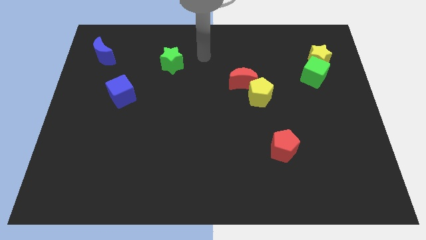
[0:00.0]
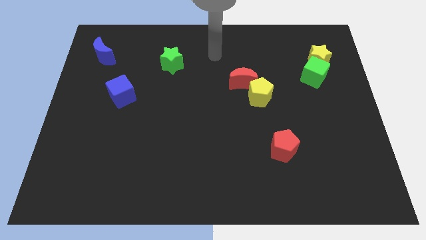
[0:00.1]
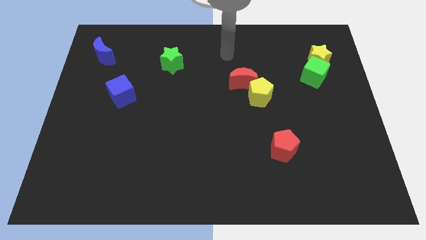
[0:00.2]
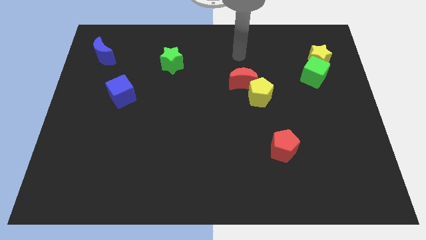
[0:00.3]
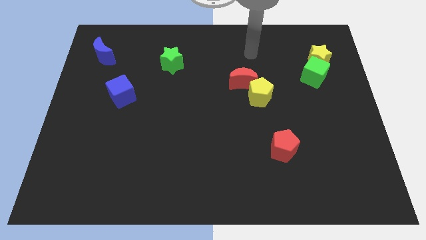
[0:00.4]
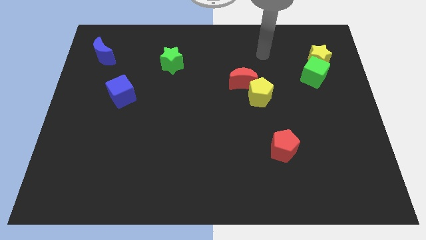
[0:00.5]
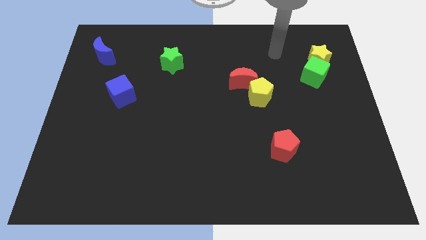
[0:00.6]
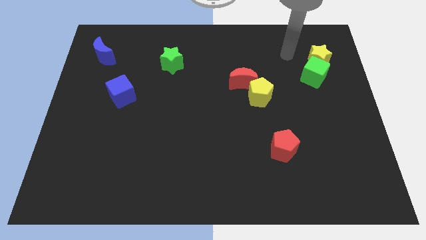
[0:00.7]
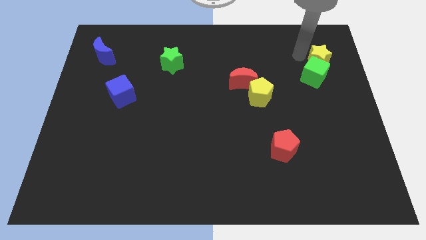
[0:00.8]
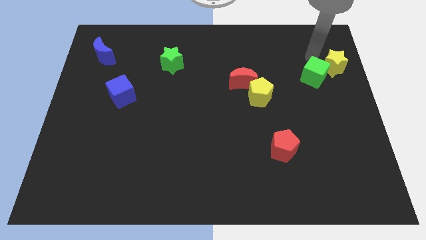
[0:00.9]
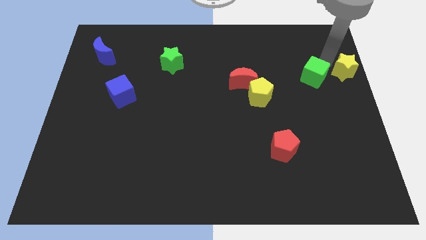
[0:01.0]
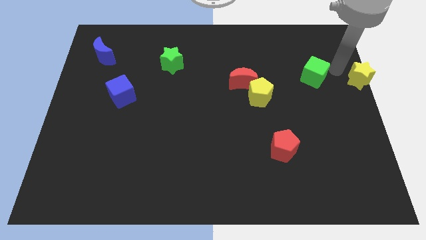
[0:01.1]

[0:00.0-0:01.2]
separate the green cube from the yellow star

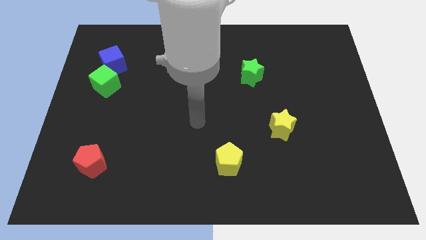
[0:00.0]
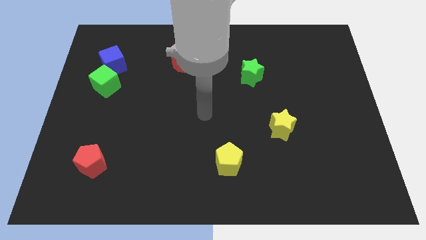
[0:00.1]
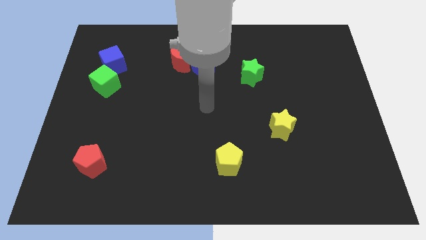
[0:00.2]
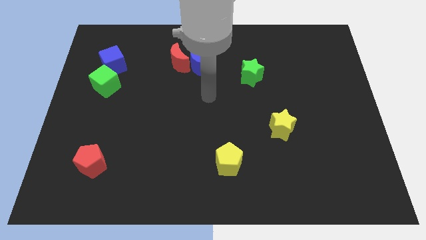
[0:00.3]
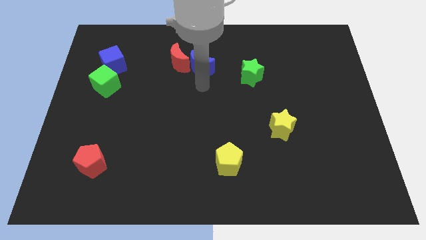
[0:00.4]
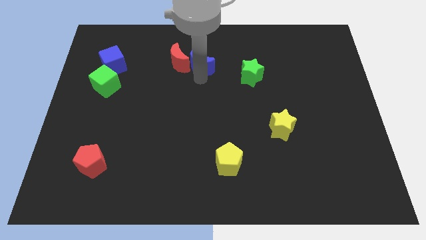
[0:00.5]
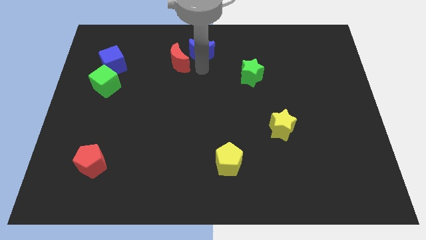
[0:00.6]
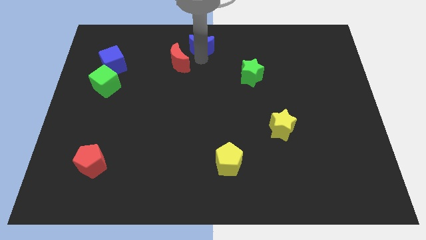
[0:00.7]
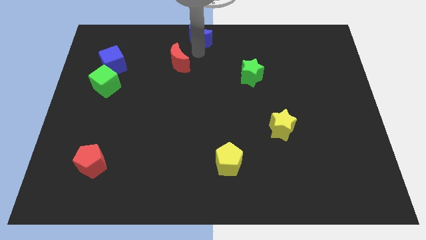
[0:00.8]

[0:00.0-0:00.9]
separate the red moon from the blue moon

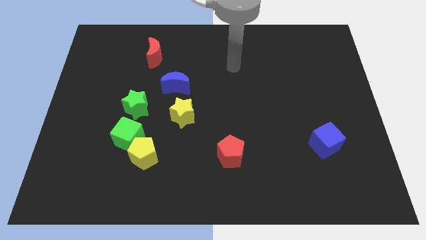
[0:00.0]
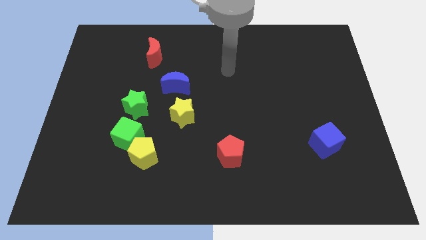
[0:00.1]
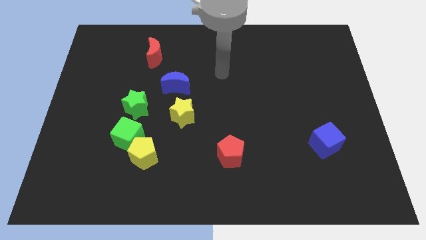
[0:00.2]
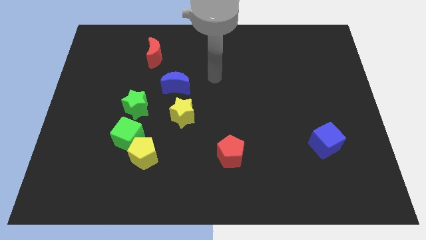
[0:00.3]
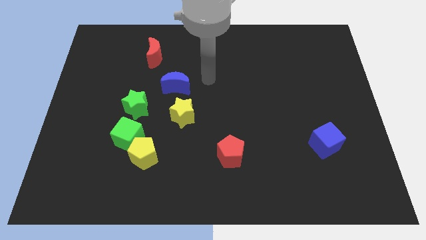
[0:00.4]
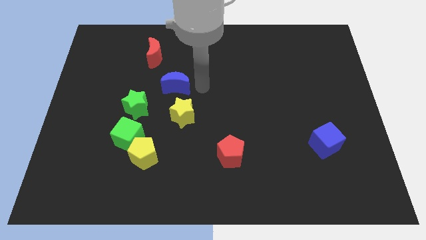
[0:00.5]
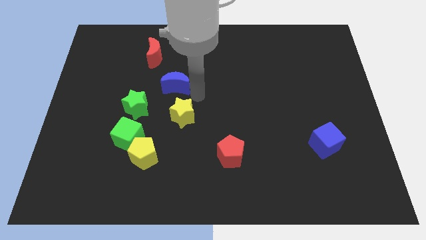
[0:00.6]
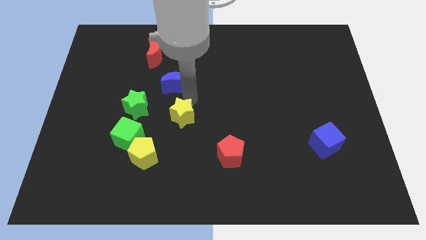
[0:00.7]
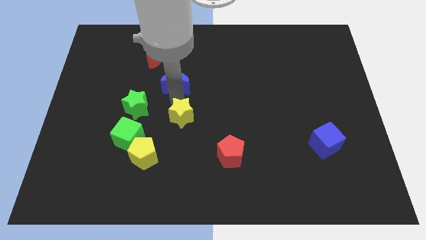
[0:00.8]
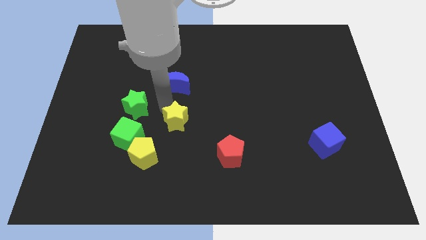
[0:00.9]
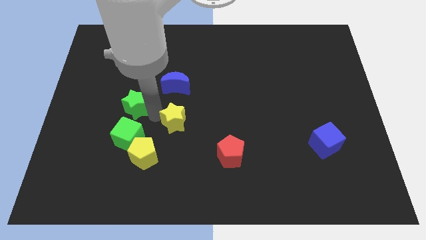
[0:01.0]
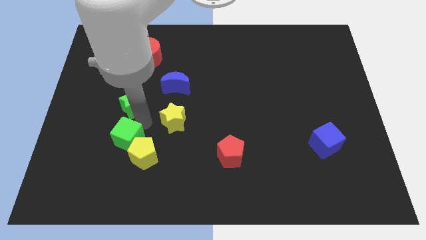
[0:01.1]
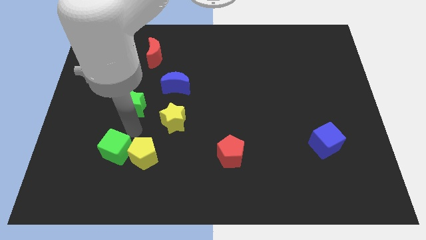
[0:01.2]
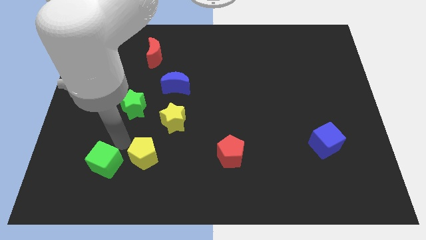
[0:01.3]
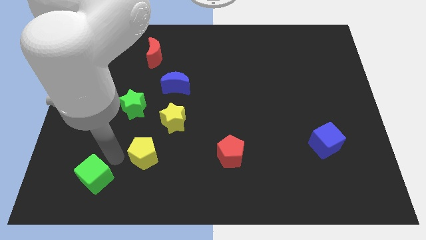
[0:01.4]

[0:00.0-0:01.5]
separate the yellow pentagon from the green cube

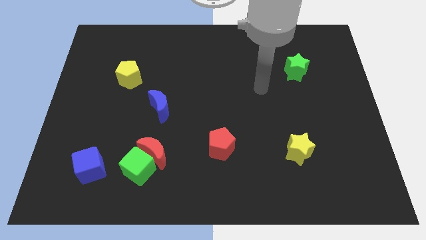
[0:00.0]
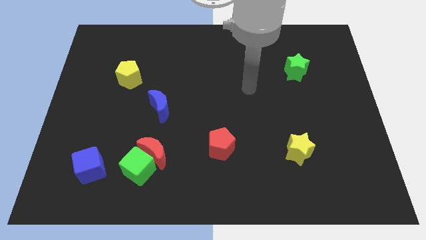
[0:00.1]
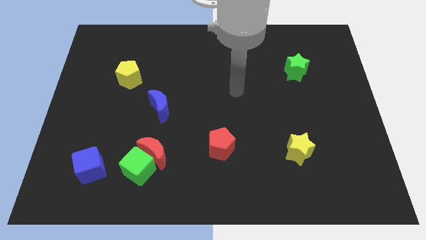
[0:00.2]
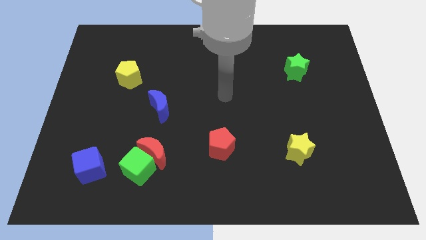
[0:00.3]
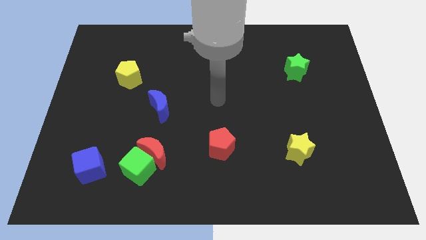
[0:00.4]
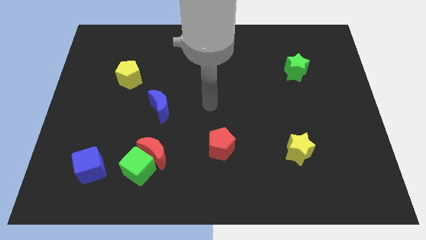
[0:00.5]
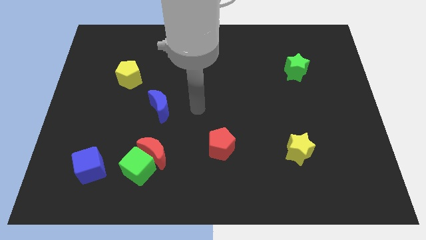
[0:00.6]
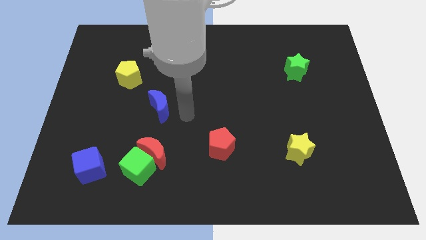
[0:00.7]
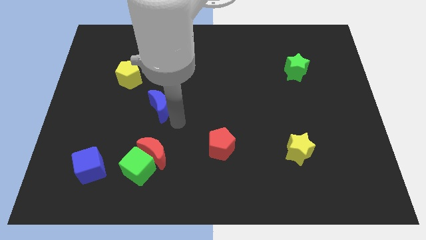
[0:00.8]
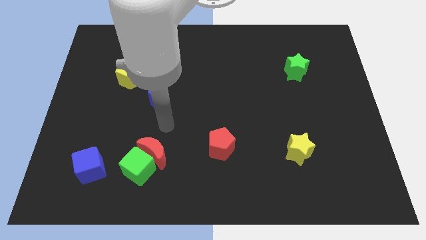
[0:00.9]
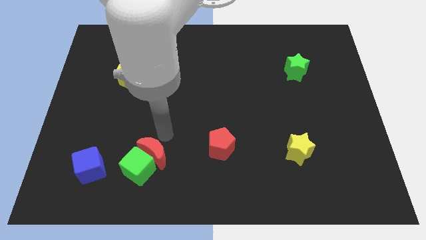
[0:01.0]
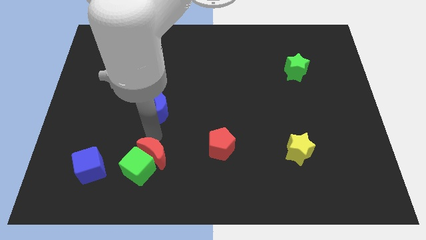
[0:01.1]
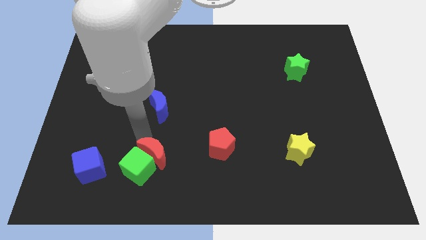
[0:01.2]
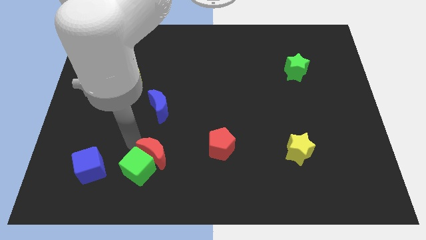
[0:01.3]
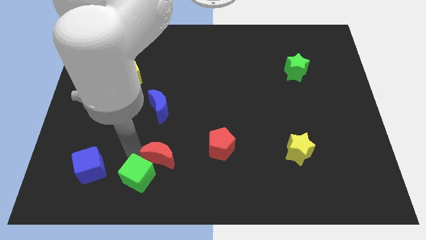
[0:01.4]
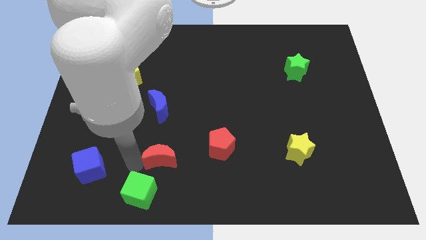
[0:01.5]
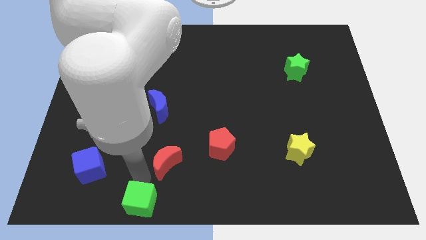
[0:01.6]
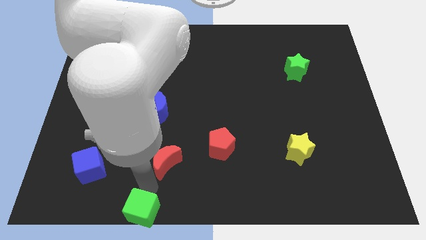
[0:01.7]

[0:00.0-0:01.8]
separate the red moon from the green cube

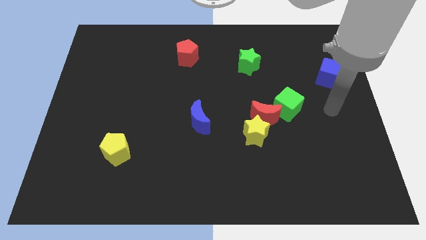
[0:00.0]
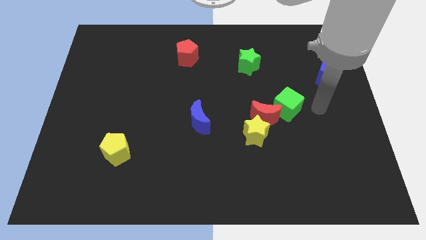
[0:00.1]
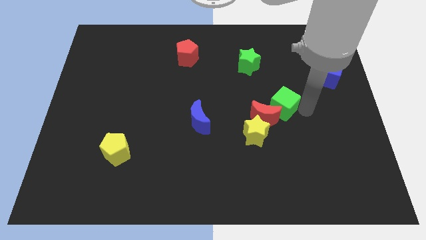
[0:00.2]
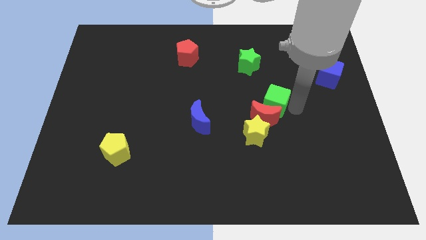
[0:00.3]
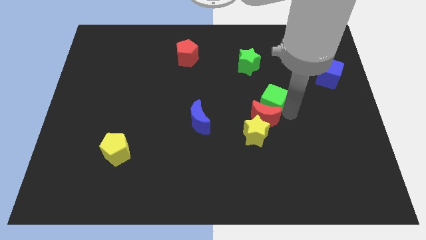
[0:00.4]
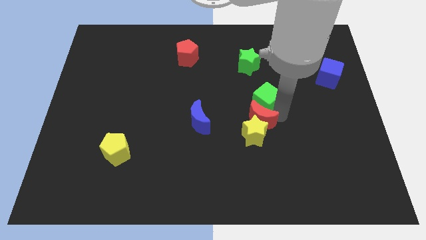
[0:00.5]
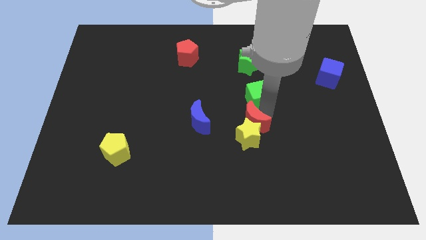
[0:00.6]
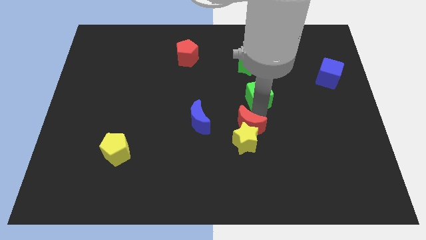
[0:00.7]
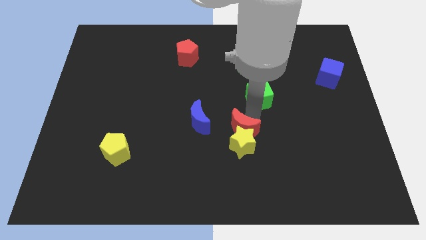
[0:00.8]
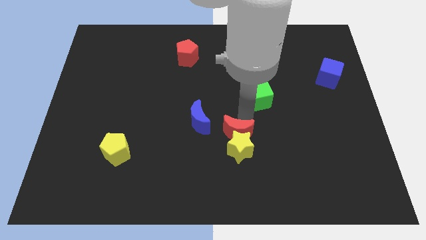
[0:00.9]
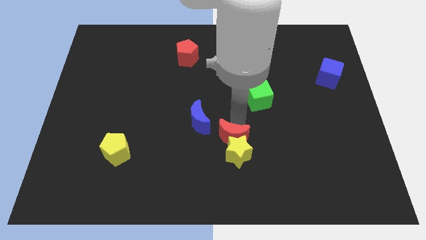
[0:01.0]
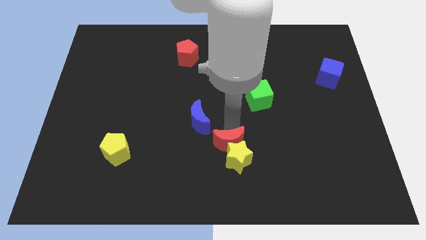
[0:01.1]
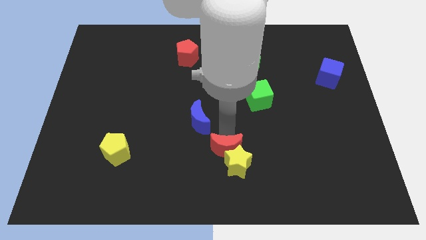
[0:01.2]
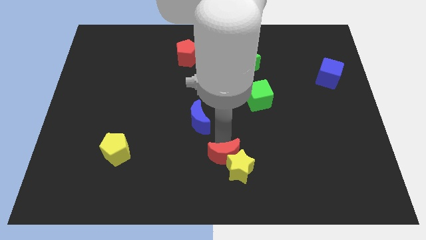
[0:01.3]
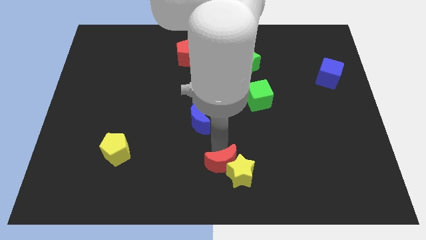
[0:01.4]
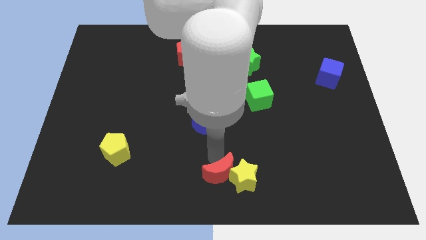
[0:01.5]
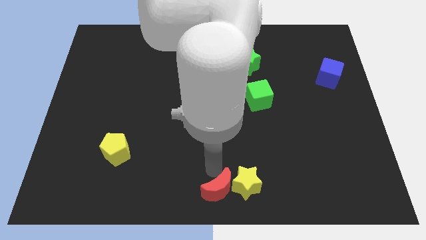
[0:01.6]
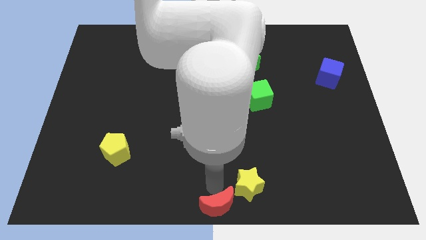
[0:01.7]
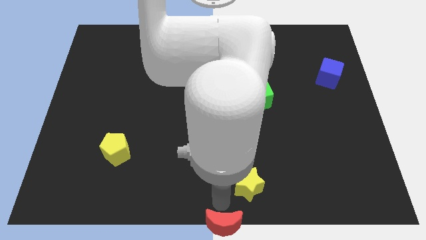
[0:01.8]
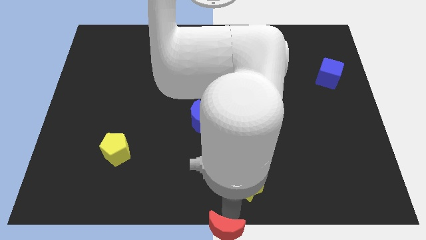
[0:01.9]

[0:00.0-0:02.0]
pull the yellow star apart from the red moon

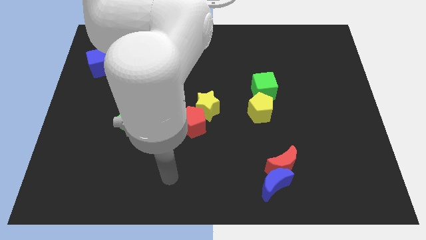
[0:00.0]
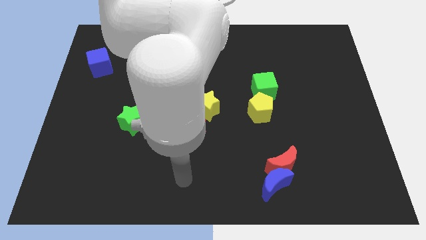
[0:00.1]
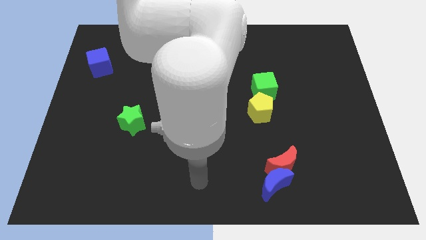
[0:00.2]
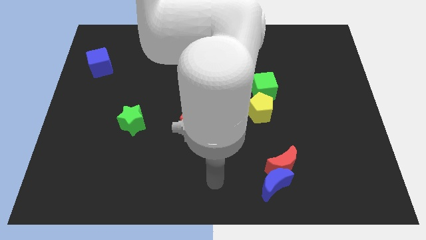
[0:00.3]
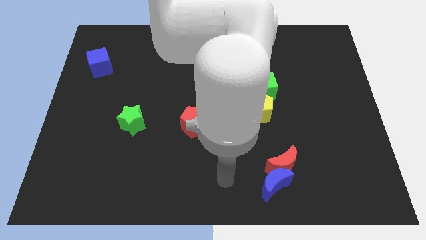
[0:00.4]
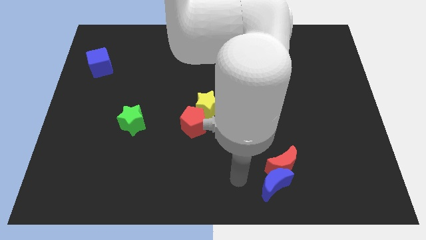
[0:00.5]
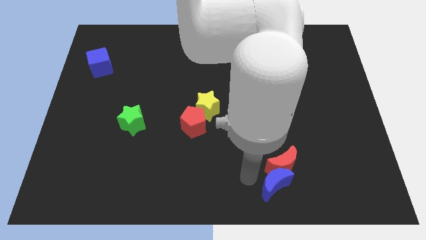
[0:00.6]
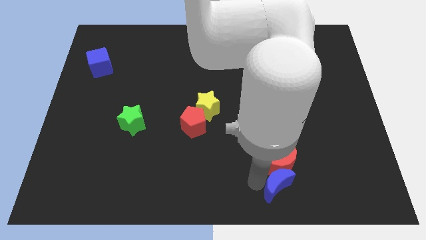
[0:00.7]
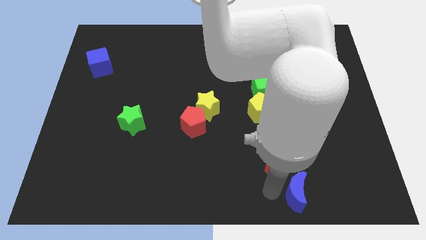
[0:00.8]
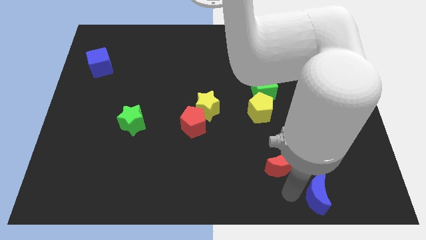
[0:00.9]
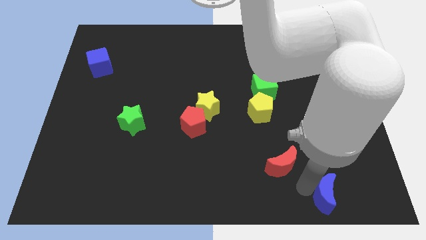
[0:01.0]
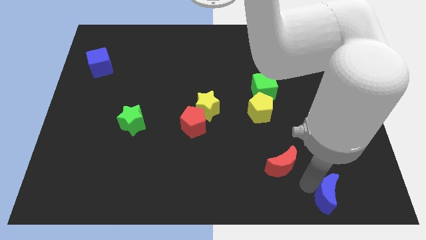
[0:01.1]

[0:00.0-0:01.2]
pull the red moon apart from the blue moon

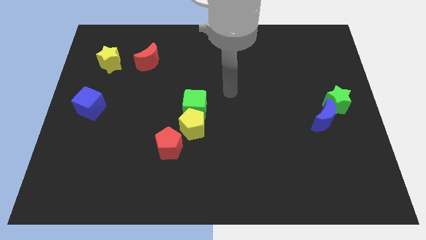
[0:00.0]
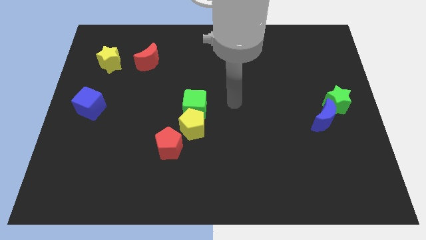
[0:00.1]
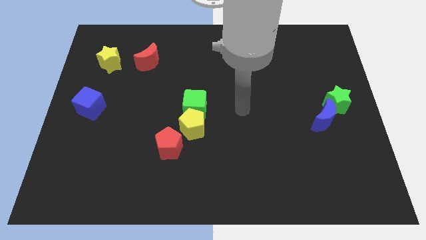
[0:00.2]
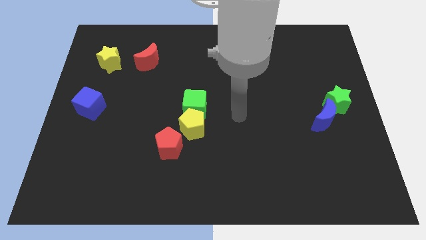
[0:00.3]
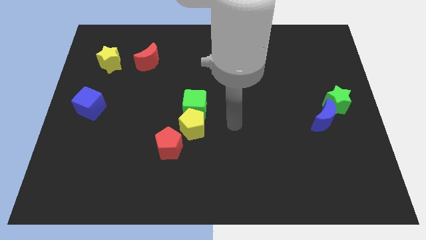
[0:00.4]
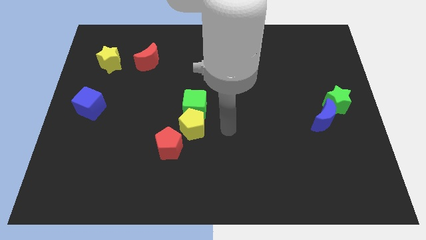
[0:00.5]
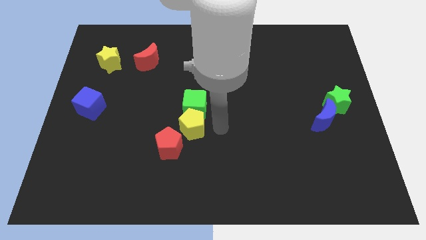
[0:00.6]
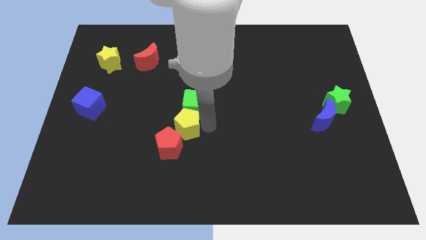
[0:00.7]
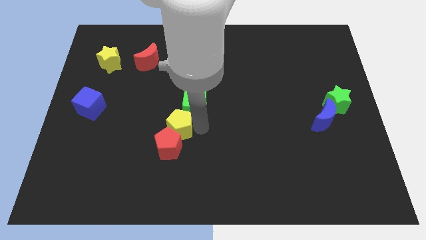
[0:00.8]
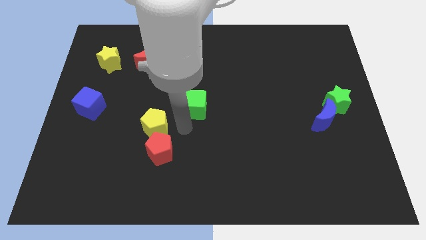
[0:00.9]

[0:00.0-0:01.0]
pull the green cube apart from the yellow pentagon
